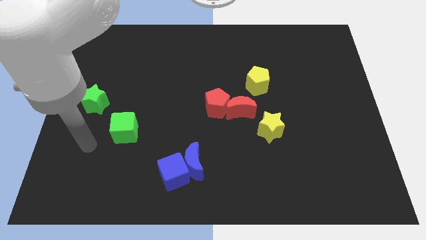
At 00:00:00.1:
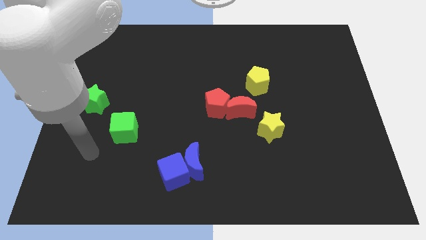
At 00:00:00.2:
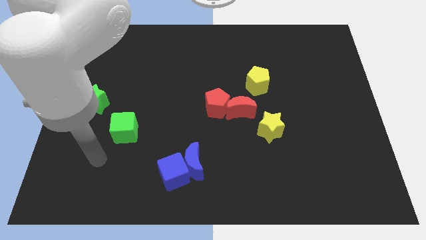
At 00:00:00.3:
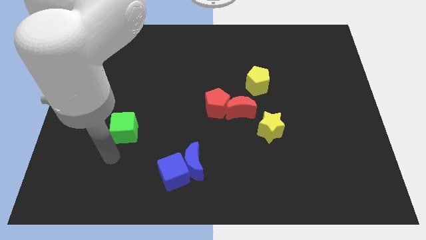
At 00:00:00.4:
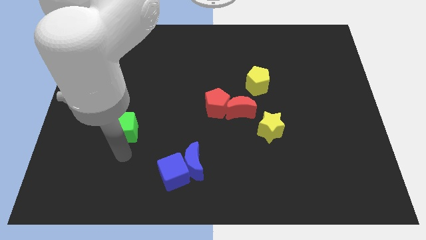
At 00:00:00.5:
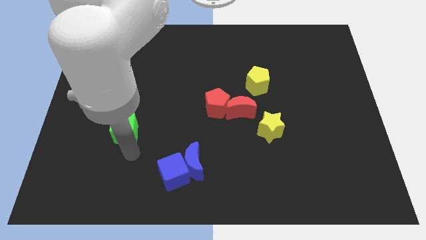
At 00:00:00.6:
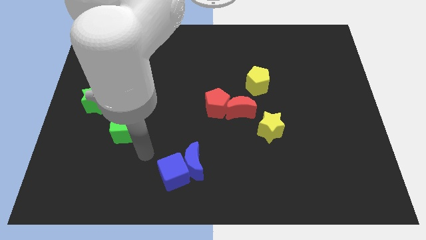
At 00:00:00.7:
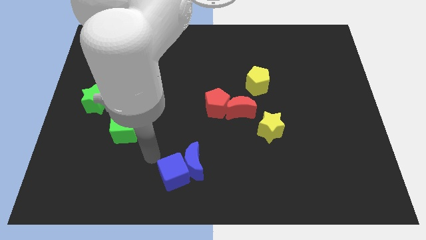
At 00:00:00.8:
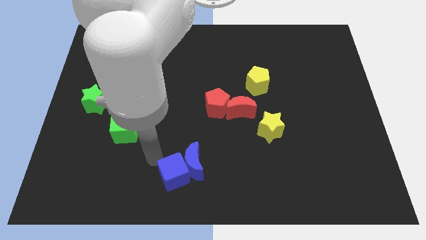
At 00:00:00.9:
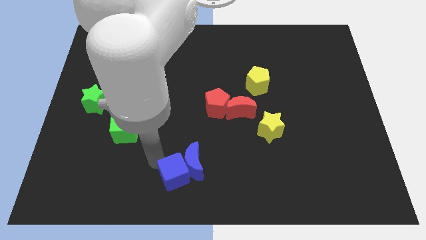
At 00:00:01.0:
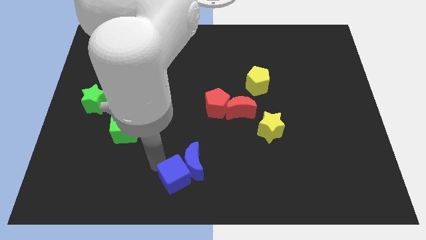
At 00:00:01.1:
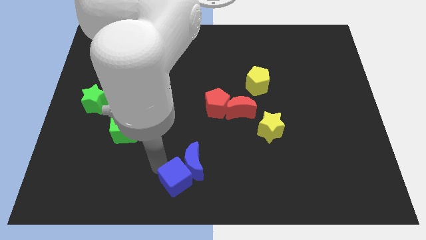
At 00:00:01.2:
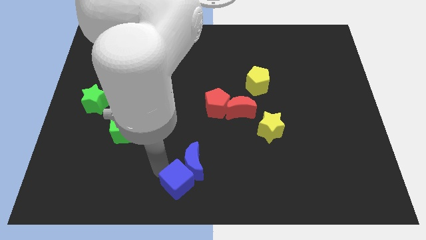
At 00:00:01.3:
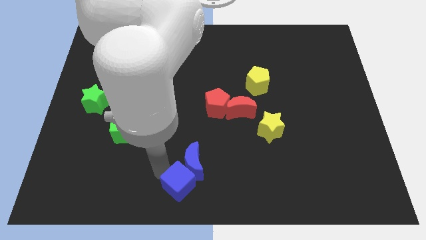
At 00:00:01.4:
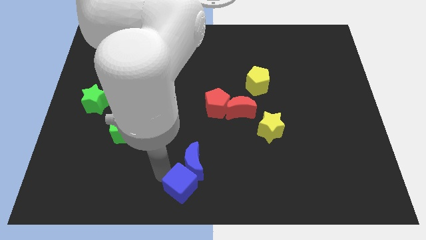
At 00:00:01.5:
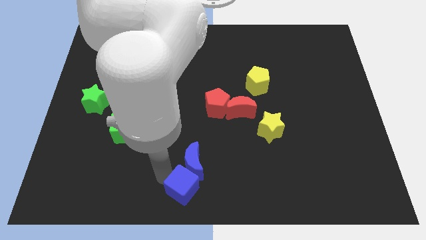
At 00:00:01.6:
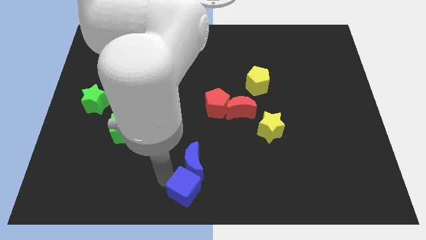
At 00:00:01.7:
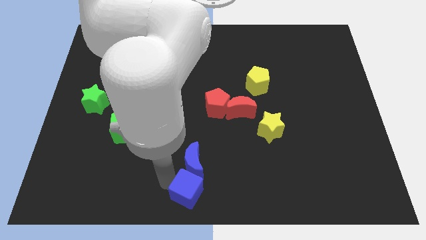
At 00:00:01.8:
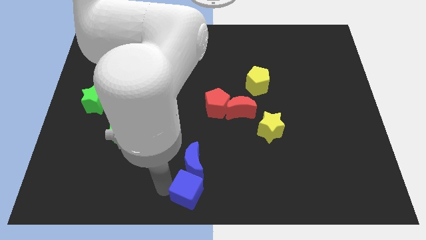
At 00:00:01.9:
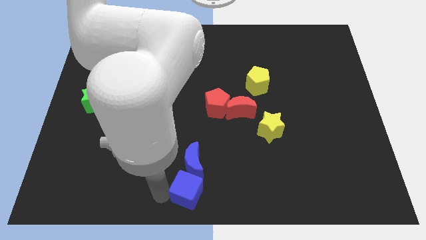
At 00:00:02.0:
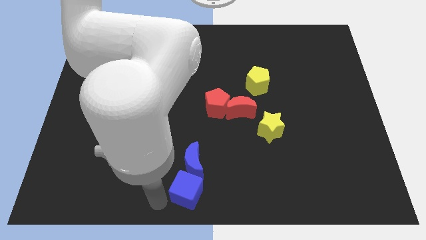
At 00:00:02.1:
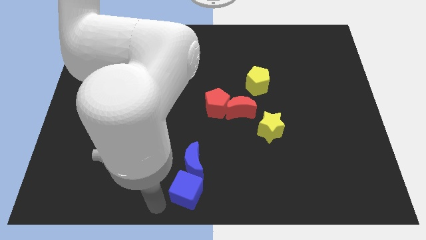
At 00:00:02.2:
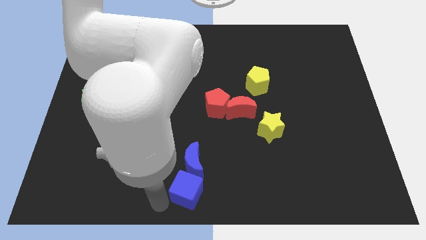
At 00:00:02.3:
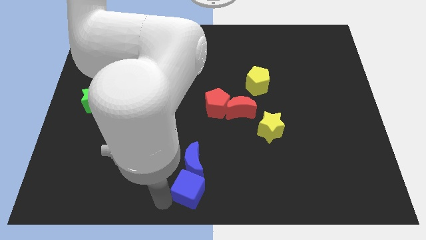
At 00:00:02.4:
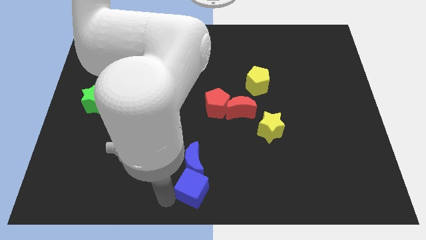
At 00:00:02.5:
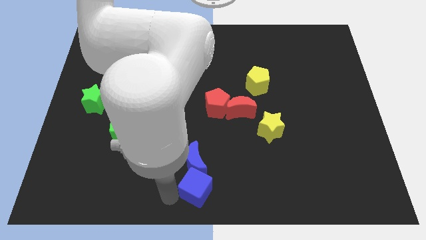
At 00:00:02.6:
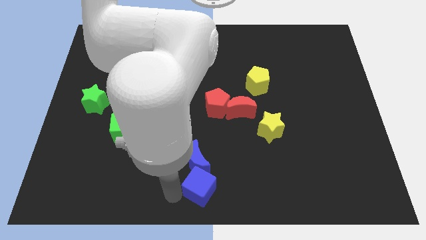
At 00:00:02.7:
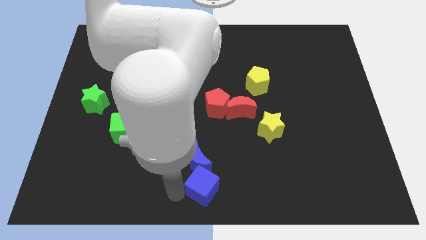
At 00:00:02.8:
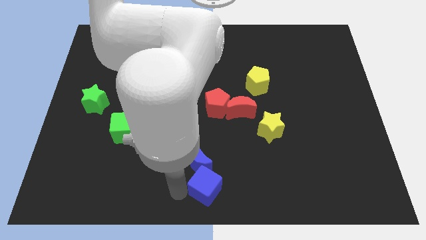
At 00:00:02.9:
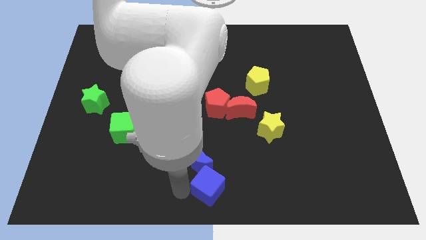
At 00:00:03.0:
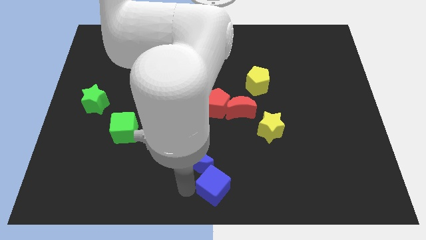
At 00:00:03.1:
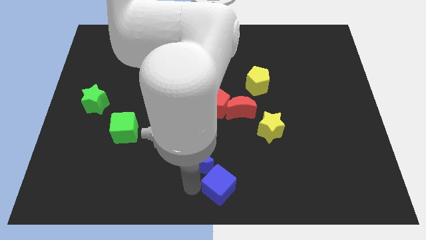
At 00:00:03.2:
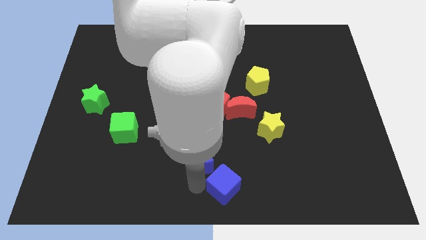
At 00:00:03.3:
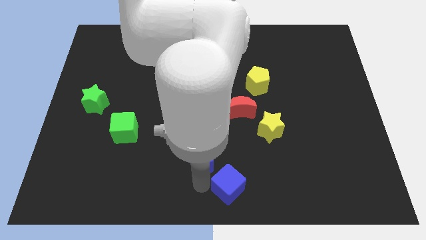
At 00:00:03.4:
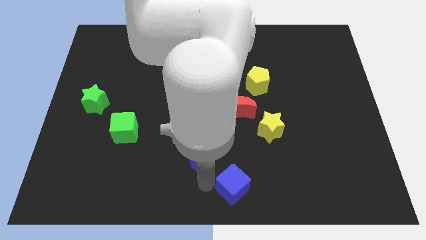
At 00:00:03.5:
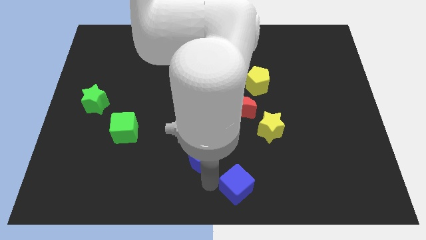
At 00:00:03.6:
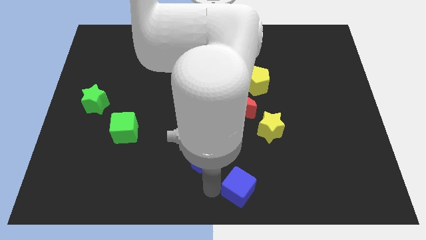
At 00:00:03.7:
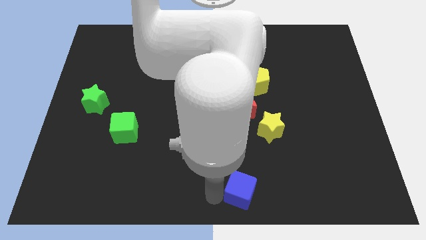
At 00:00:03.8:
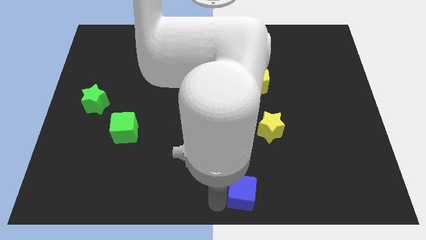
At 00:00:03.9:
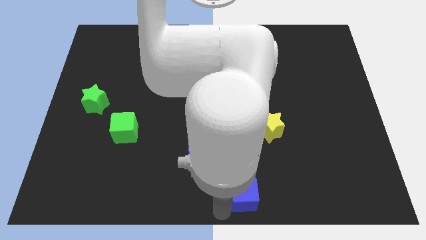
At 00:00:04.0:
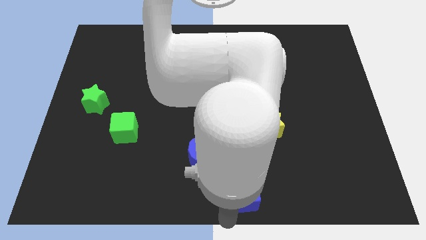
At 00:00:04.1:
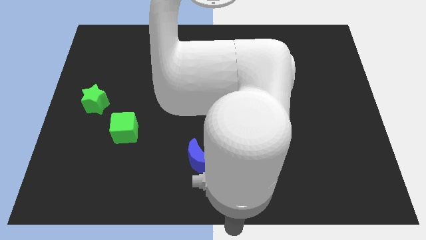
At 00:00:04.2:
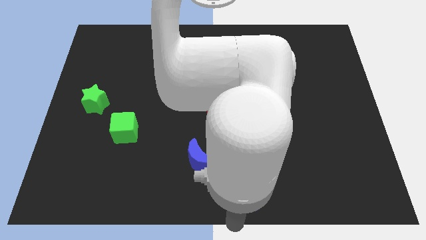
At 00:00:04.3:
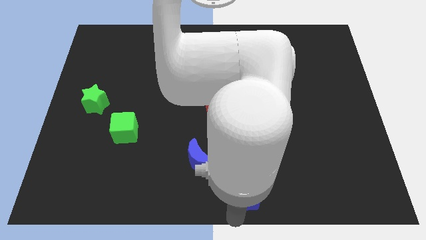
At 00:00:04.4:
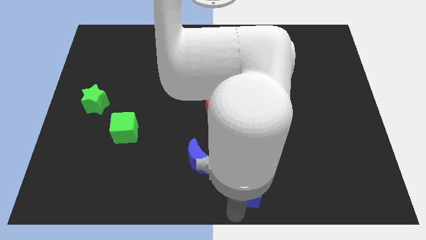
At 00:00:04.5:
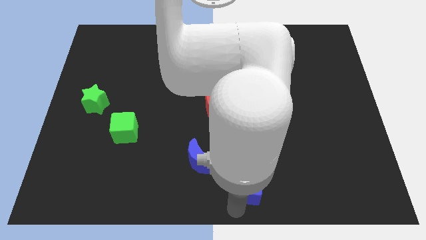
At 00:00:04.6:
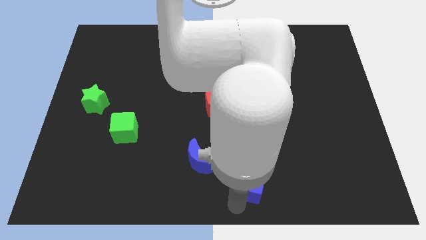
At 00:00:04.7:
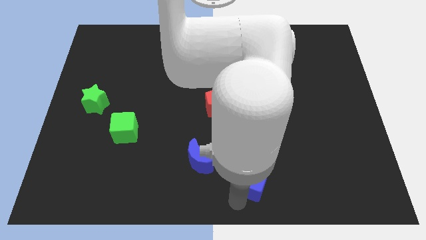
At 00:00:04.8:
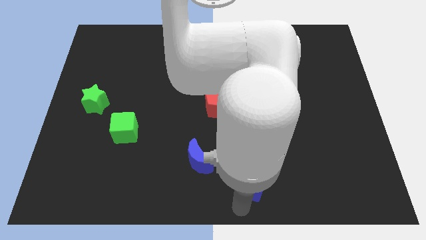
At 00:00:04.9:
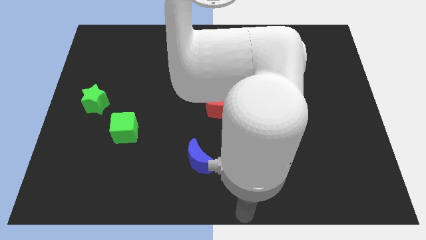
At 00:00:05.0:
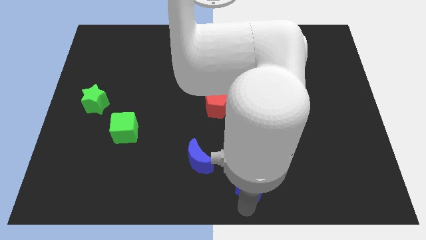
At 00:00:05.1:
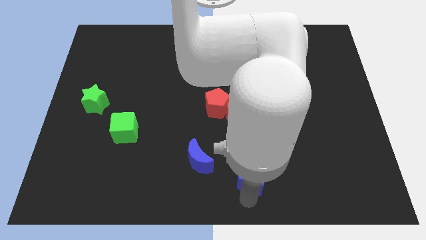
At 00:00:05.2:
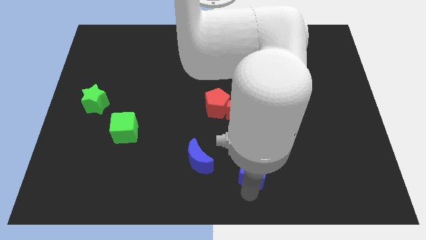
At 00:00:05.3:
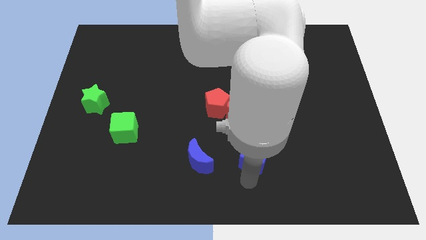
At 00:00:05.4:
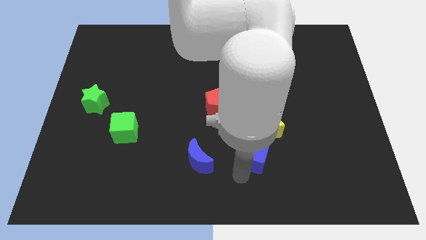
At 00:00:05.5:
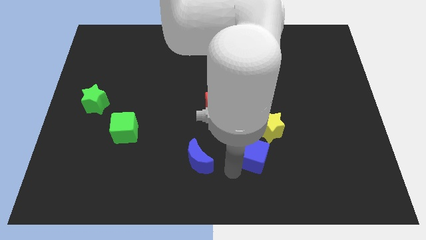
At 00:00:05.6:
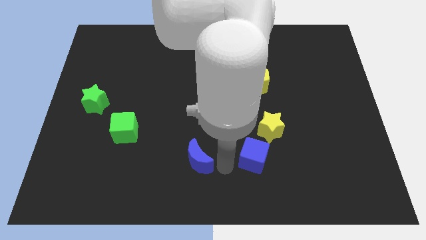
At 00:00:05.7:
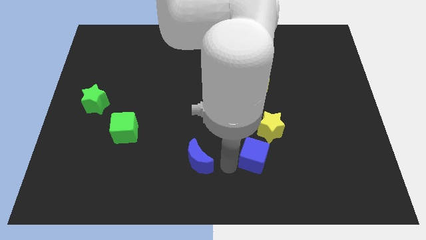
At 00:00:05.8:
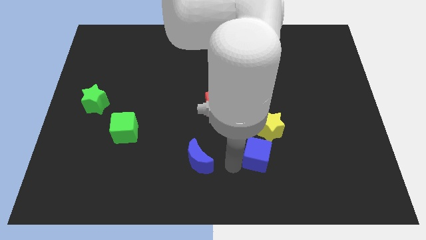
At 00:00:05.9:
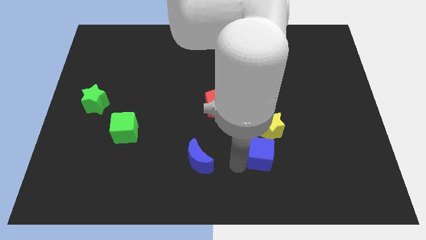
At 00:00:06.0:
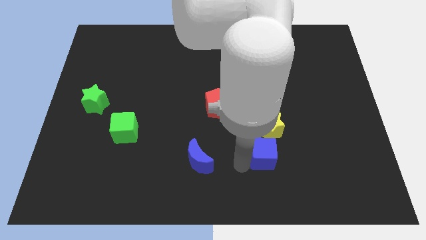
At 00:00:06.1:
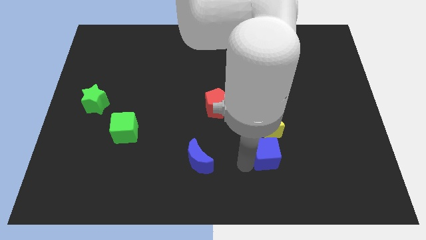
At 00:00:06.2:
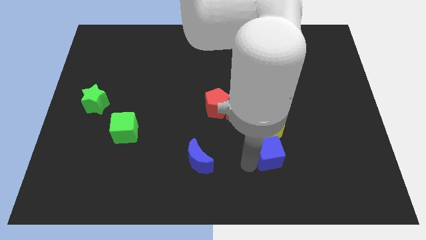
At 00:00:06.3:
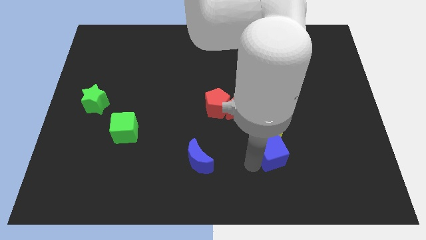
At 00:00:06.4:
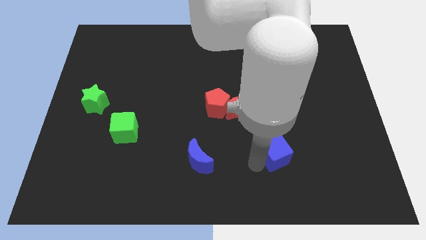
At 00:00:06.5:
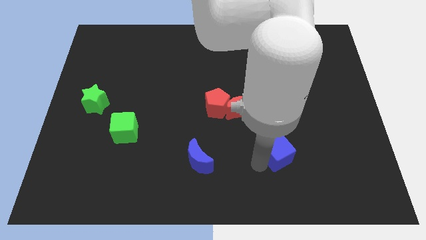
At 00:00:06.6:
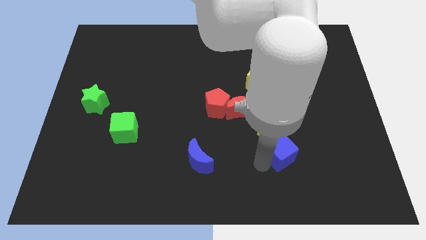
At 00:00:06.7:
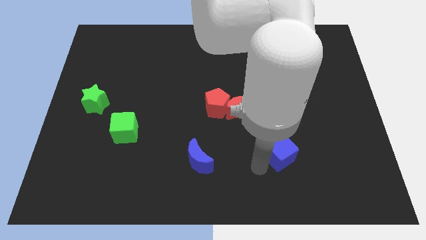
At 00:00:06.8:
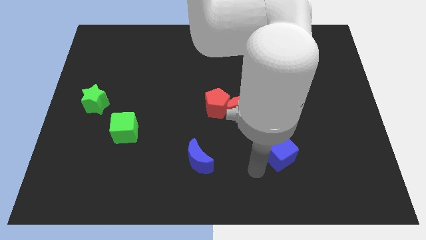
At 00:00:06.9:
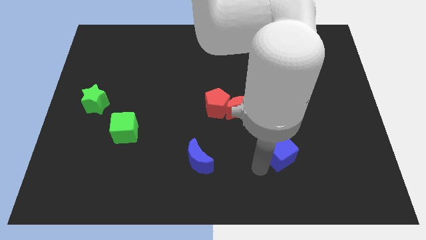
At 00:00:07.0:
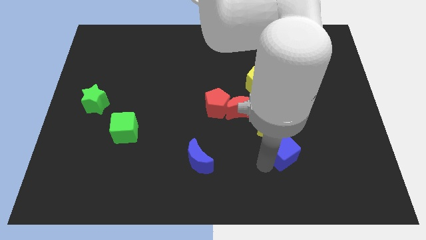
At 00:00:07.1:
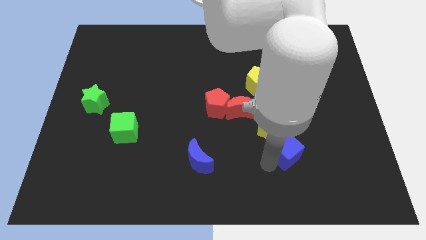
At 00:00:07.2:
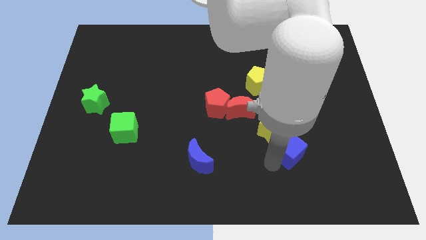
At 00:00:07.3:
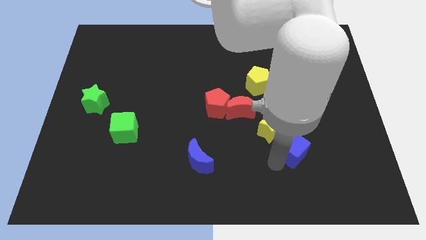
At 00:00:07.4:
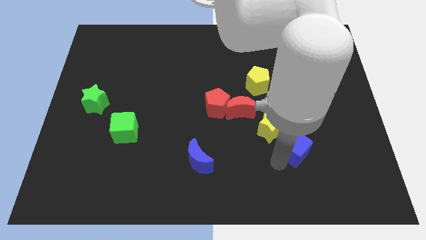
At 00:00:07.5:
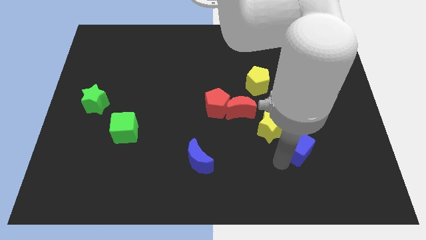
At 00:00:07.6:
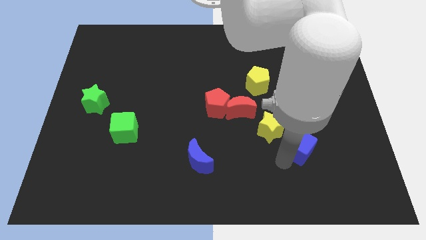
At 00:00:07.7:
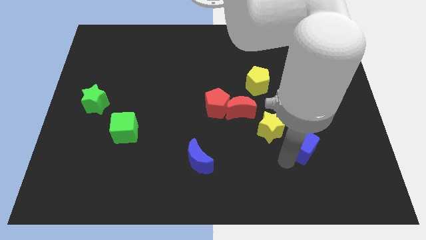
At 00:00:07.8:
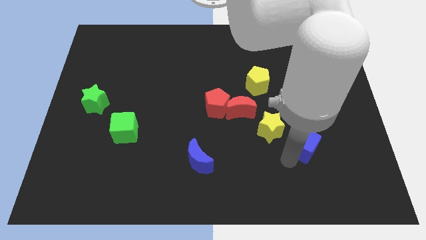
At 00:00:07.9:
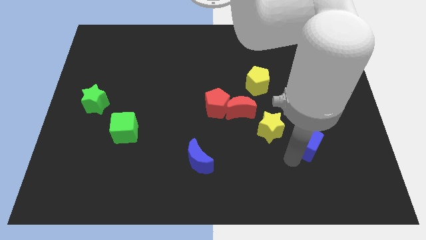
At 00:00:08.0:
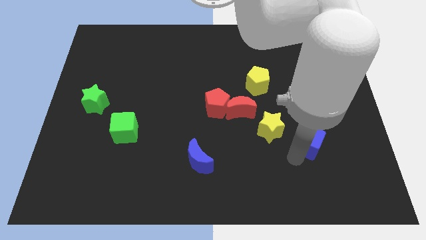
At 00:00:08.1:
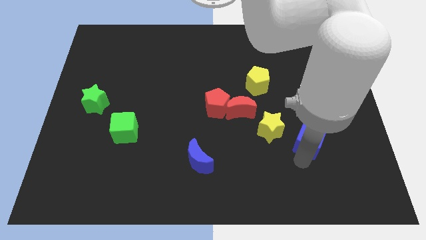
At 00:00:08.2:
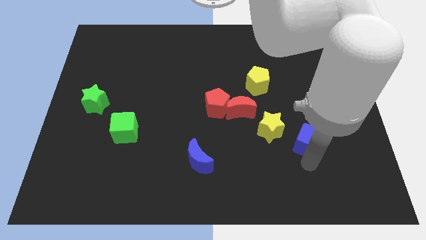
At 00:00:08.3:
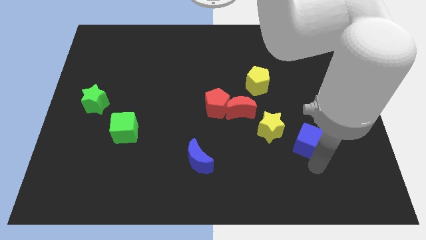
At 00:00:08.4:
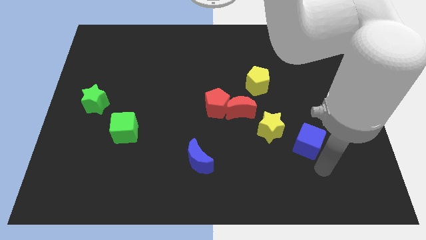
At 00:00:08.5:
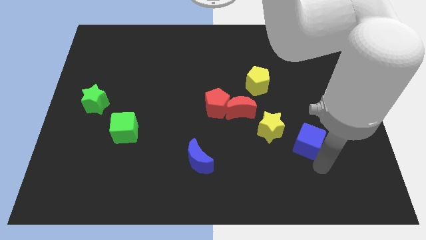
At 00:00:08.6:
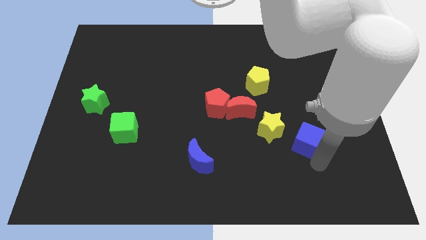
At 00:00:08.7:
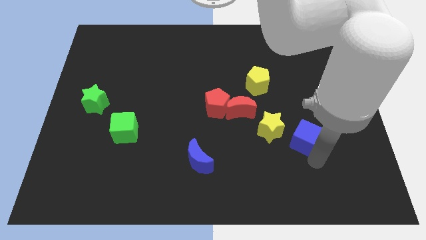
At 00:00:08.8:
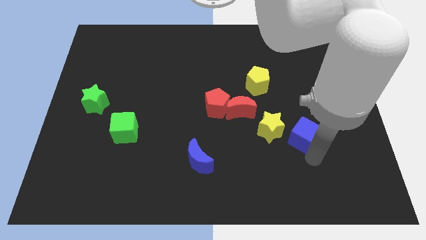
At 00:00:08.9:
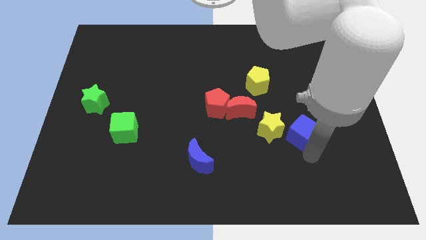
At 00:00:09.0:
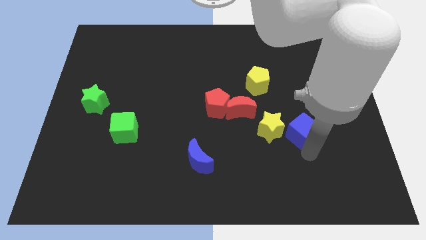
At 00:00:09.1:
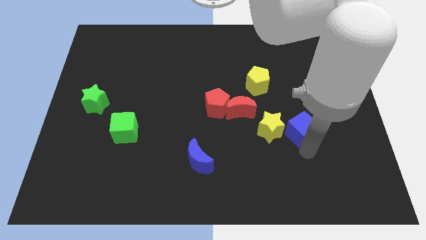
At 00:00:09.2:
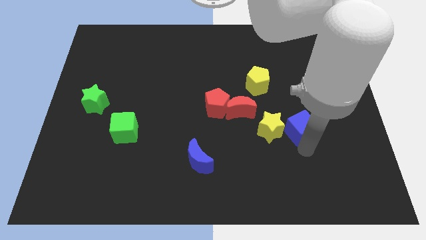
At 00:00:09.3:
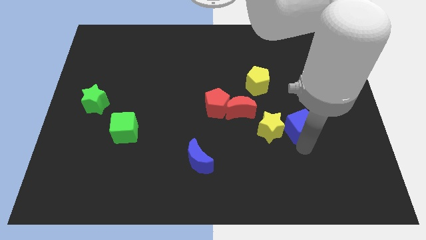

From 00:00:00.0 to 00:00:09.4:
slide the blue cube upwards and right diagonally
